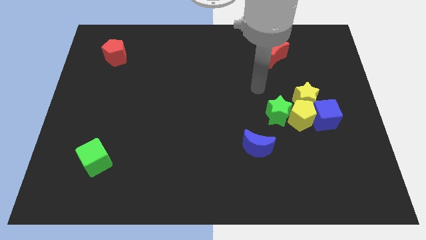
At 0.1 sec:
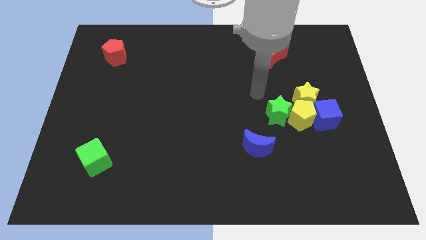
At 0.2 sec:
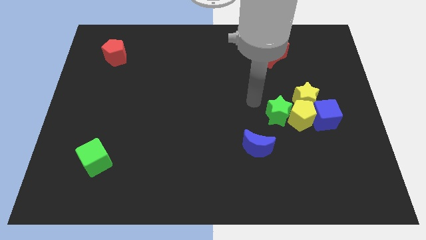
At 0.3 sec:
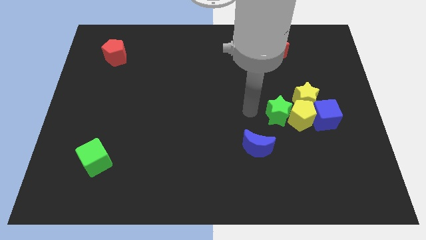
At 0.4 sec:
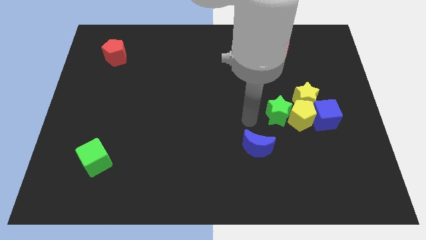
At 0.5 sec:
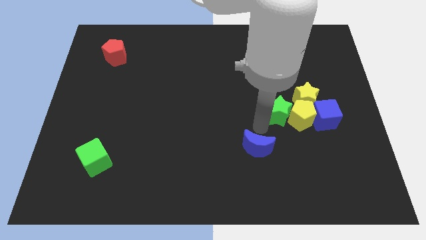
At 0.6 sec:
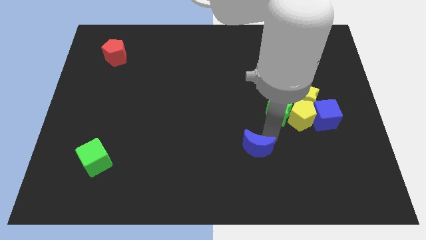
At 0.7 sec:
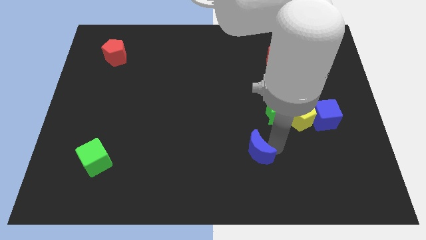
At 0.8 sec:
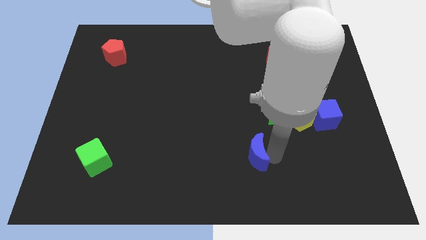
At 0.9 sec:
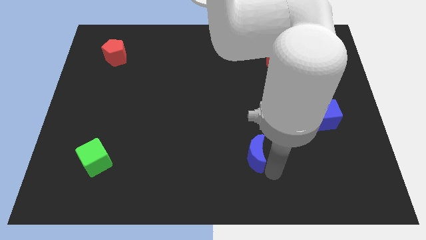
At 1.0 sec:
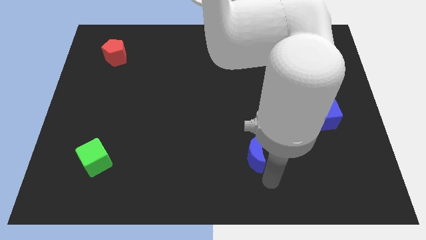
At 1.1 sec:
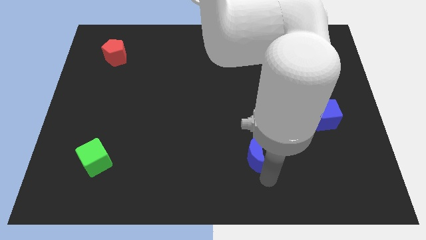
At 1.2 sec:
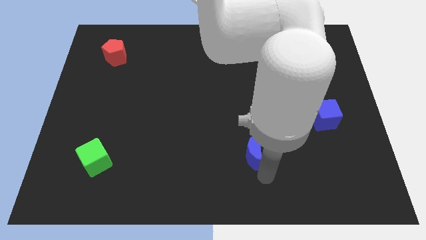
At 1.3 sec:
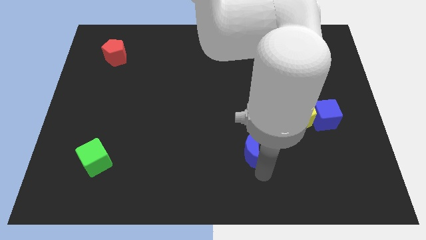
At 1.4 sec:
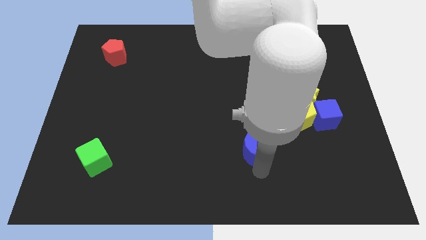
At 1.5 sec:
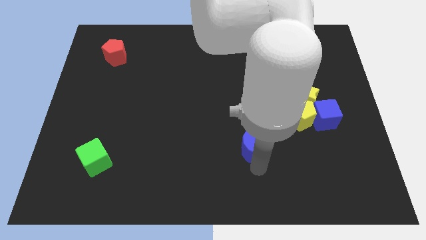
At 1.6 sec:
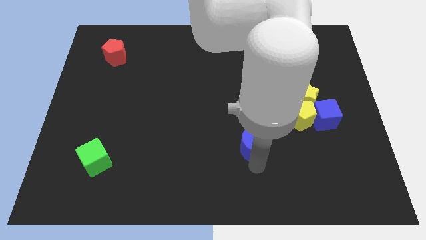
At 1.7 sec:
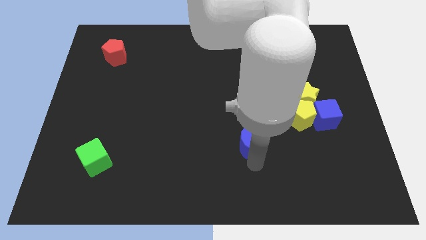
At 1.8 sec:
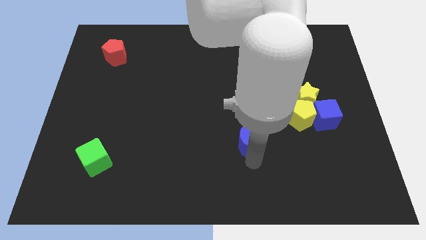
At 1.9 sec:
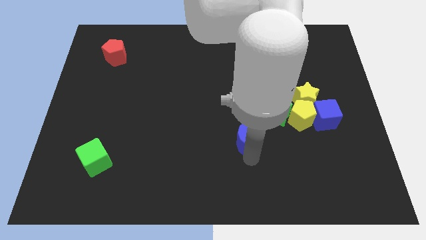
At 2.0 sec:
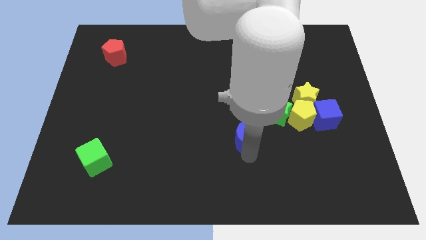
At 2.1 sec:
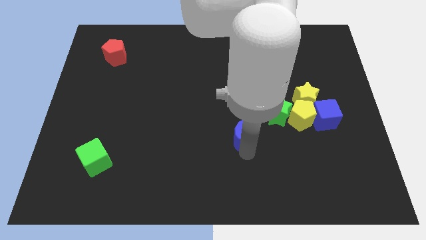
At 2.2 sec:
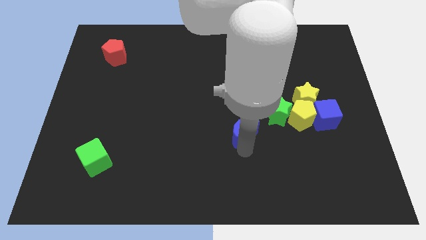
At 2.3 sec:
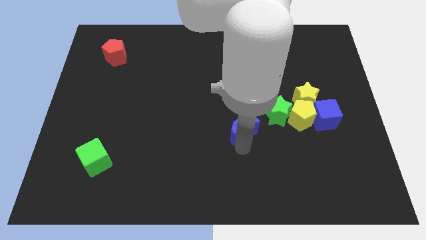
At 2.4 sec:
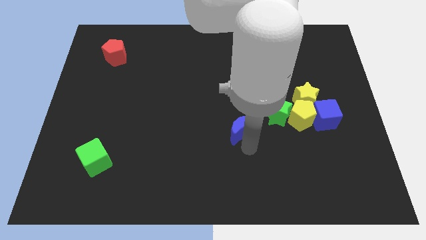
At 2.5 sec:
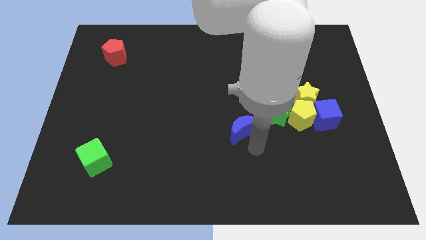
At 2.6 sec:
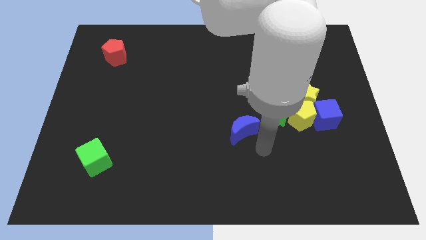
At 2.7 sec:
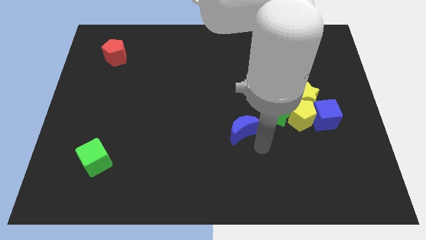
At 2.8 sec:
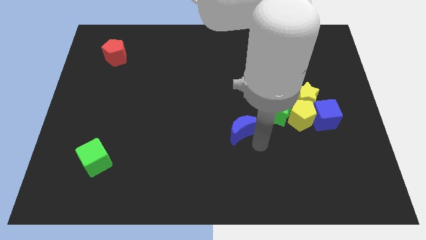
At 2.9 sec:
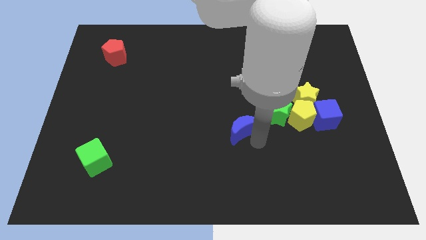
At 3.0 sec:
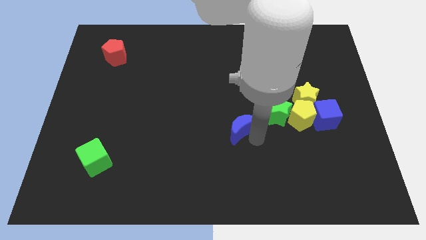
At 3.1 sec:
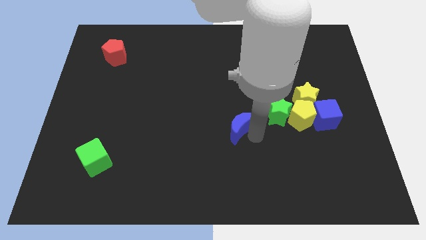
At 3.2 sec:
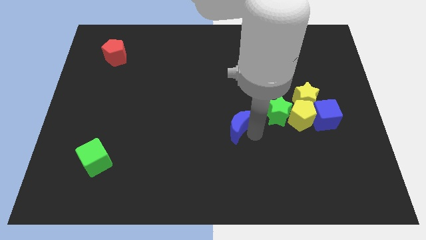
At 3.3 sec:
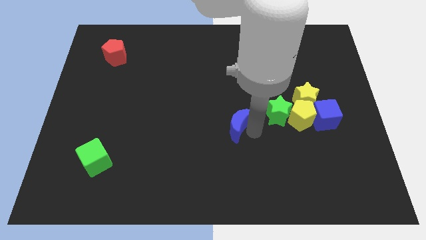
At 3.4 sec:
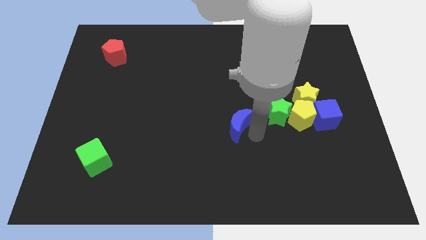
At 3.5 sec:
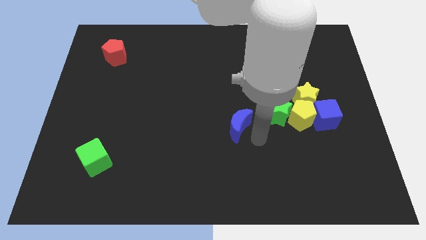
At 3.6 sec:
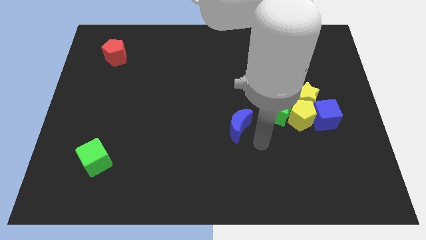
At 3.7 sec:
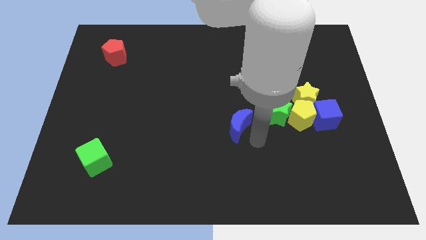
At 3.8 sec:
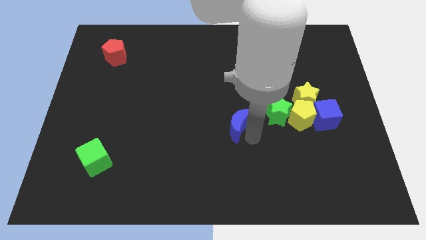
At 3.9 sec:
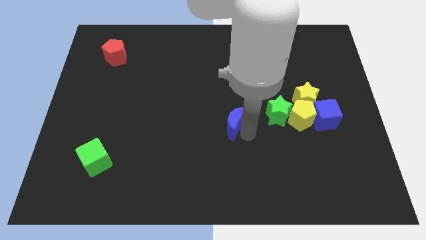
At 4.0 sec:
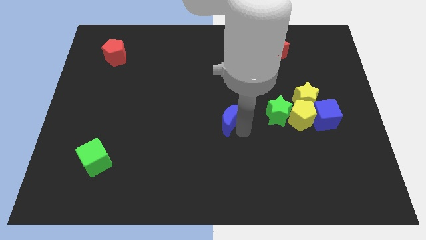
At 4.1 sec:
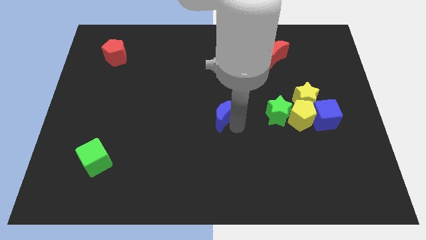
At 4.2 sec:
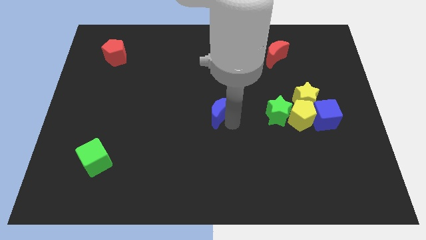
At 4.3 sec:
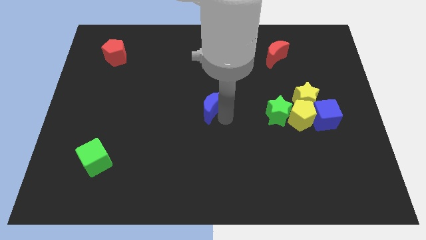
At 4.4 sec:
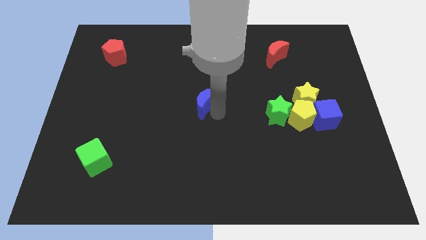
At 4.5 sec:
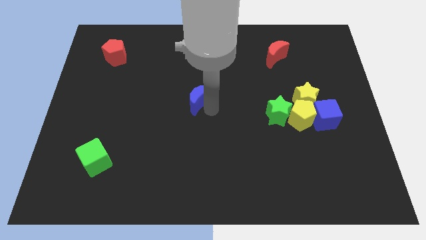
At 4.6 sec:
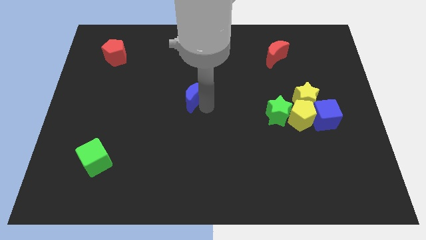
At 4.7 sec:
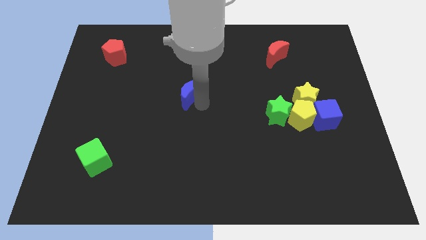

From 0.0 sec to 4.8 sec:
slide the blue moon diagonally up and left

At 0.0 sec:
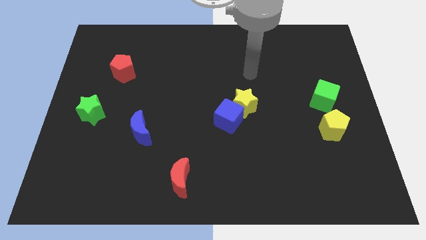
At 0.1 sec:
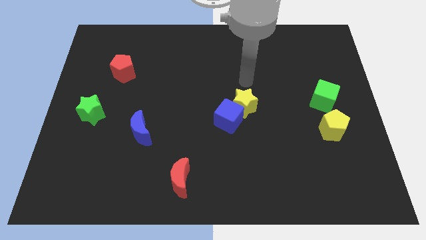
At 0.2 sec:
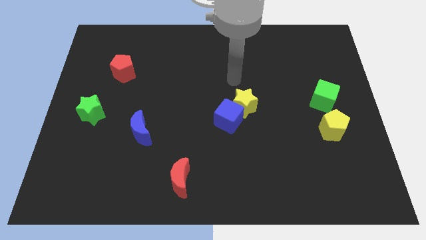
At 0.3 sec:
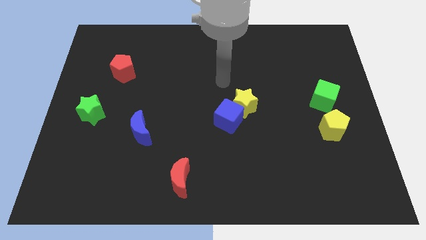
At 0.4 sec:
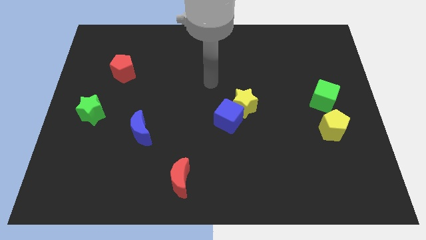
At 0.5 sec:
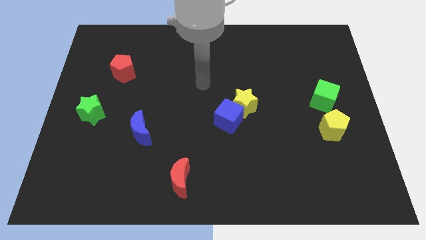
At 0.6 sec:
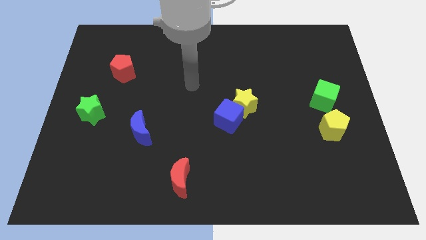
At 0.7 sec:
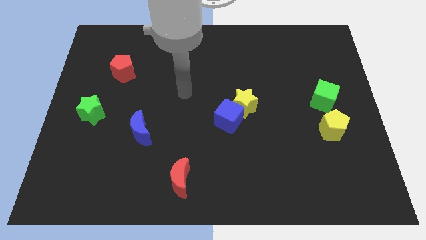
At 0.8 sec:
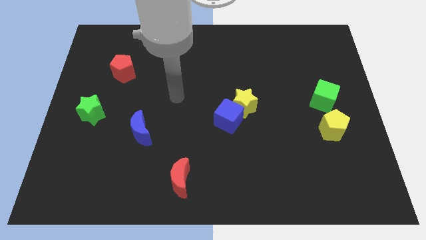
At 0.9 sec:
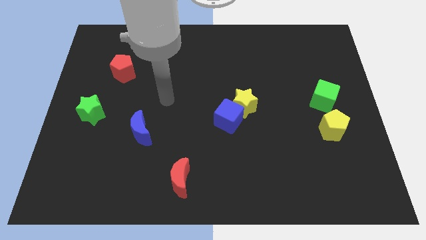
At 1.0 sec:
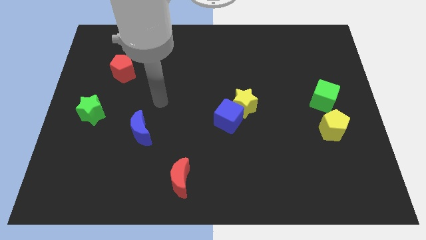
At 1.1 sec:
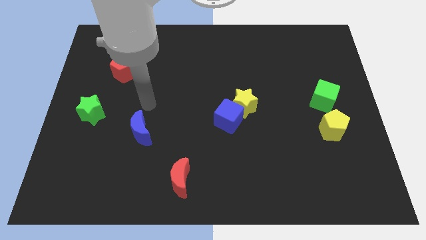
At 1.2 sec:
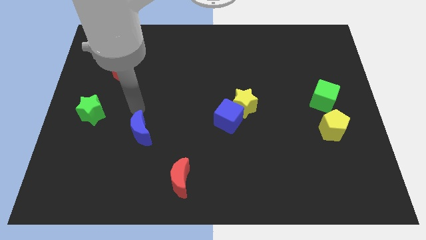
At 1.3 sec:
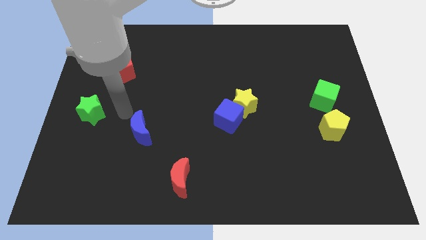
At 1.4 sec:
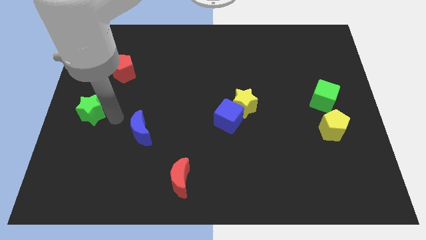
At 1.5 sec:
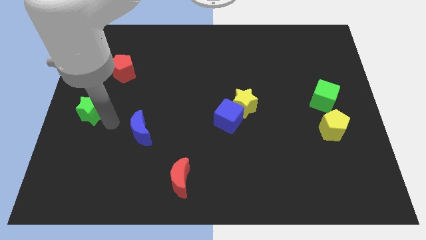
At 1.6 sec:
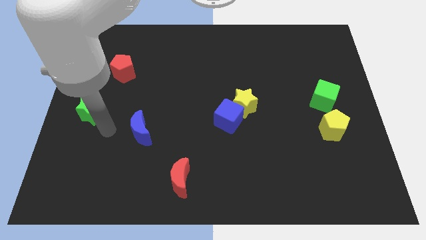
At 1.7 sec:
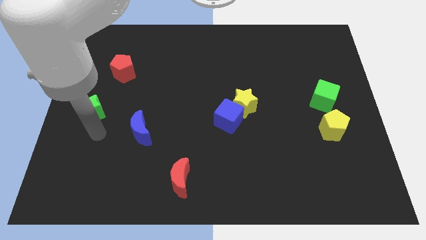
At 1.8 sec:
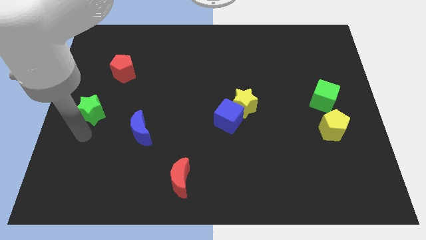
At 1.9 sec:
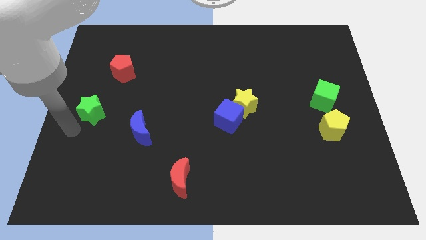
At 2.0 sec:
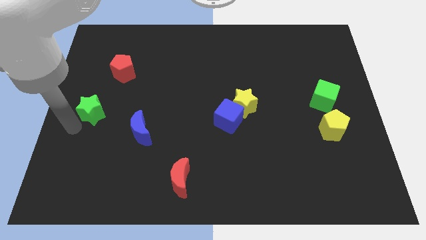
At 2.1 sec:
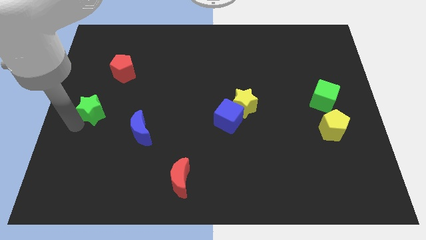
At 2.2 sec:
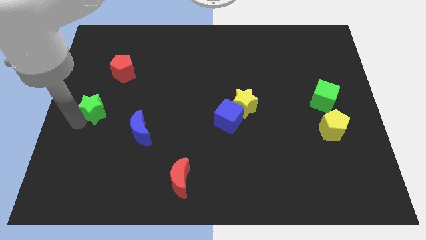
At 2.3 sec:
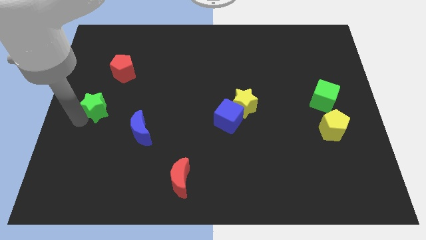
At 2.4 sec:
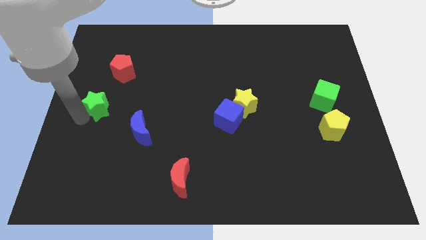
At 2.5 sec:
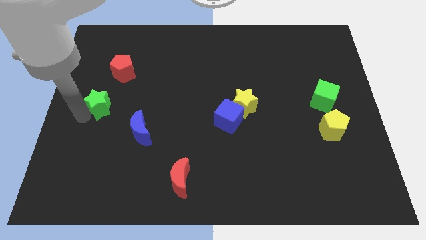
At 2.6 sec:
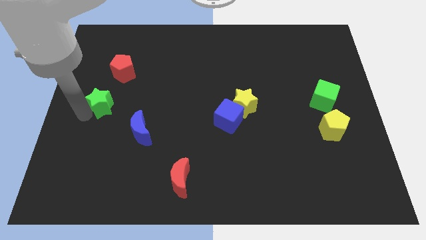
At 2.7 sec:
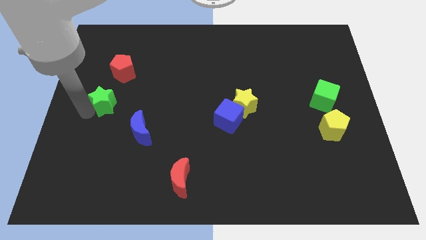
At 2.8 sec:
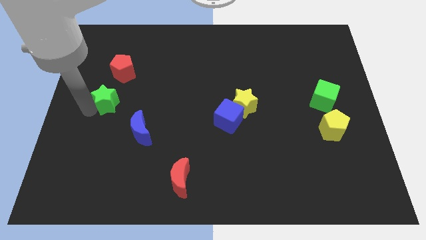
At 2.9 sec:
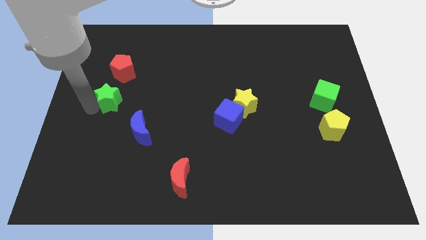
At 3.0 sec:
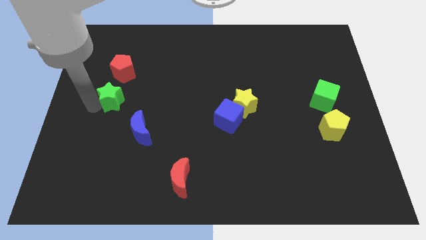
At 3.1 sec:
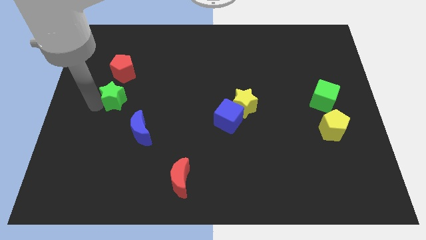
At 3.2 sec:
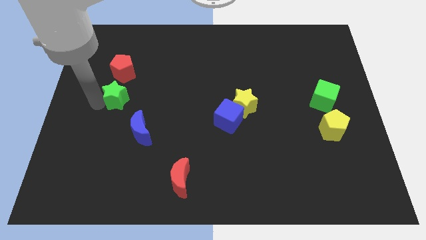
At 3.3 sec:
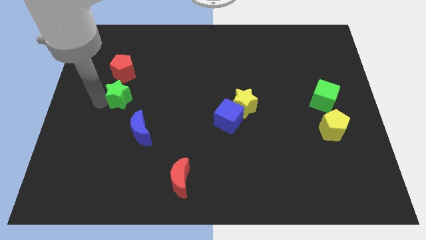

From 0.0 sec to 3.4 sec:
slightly move the green star up and then right
